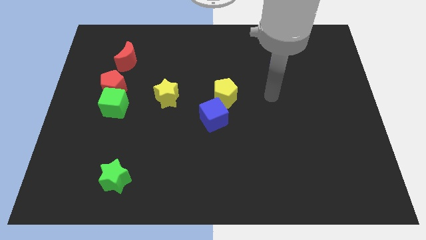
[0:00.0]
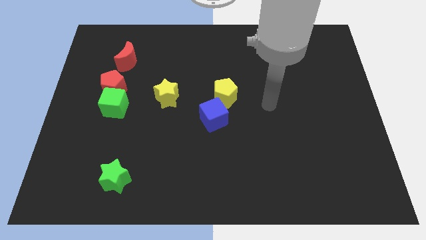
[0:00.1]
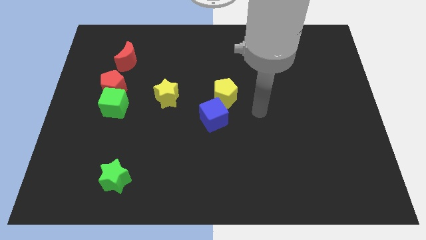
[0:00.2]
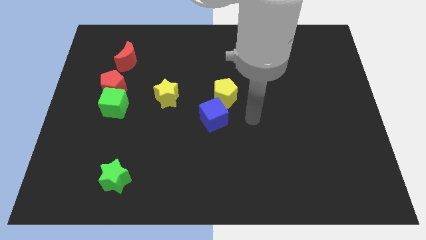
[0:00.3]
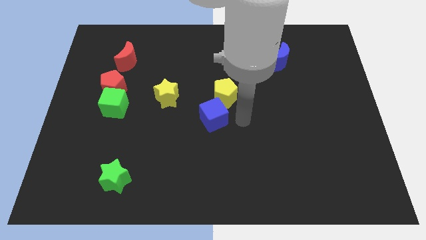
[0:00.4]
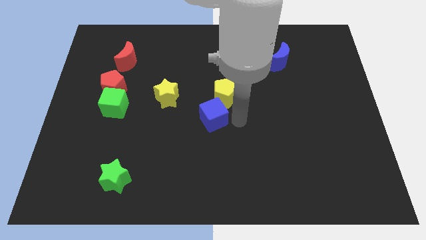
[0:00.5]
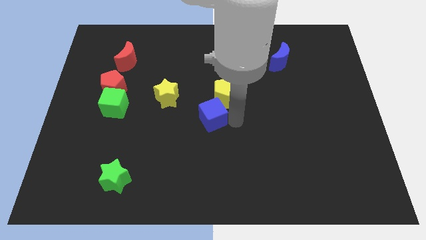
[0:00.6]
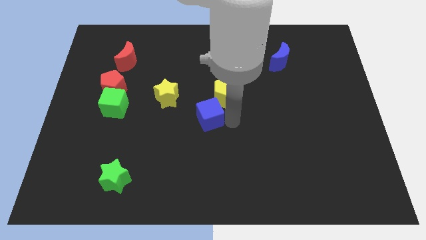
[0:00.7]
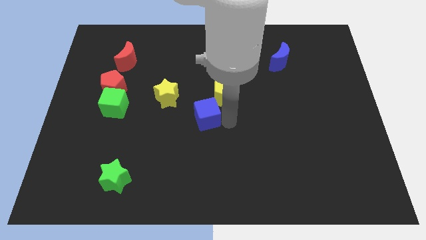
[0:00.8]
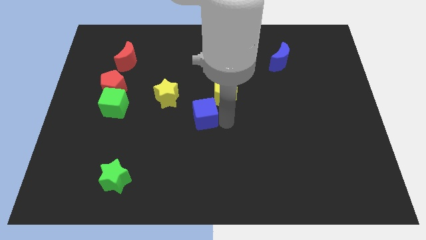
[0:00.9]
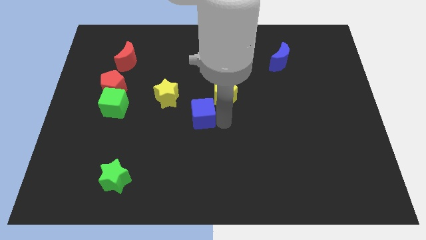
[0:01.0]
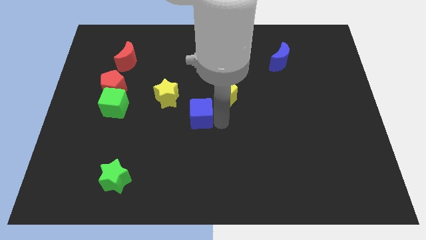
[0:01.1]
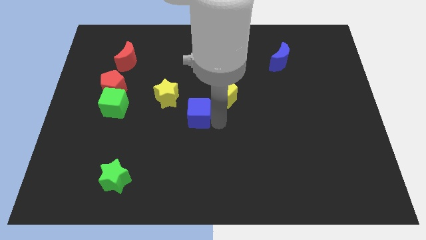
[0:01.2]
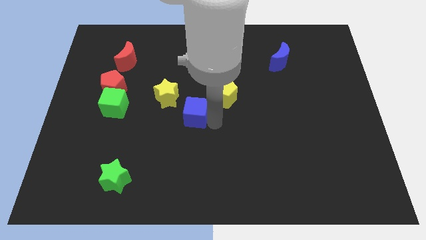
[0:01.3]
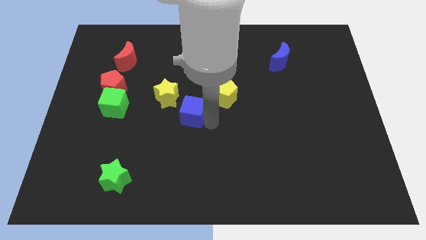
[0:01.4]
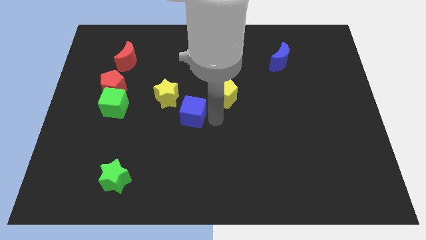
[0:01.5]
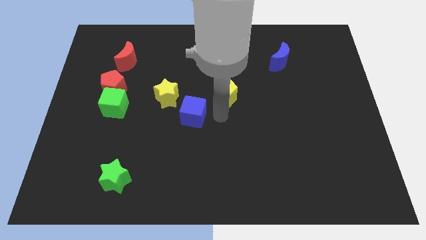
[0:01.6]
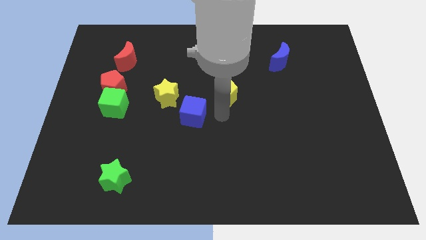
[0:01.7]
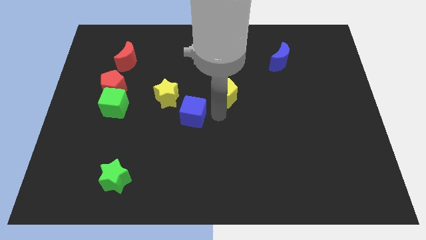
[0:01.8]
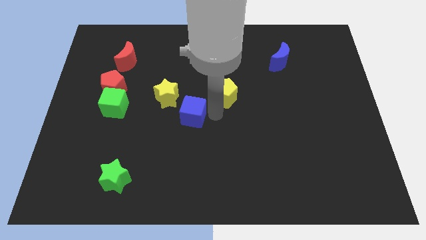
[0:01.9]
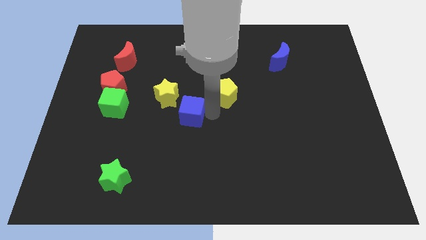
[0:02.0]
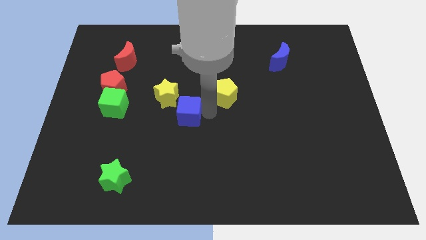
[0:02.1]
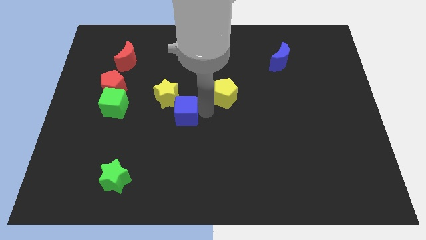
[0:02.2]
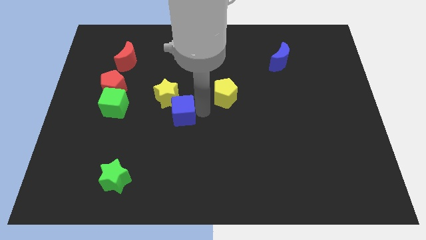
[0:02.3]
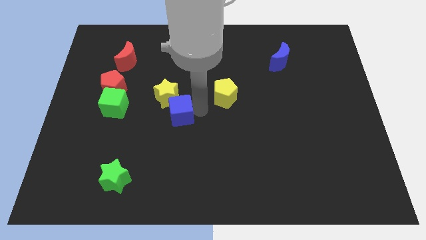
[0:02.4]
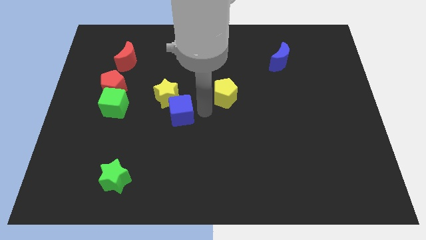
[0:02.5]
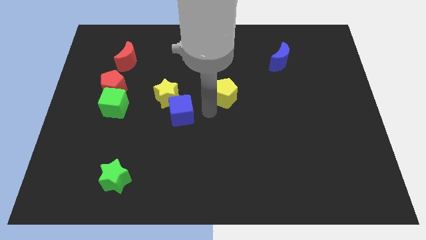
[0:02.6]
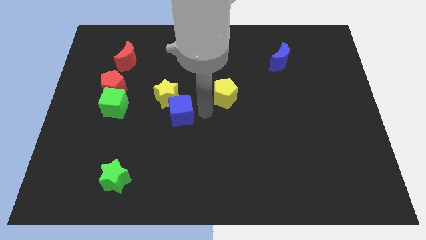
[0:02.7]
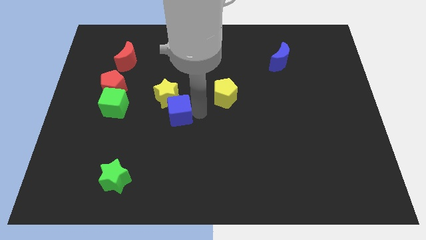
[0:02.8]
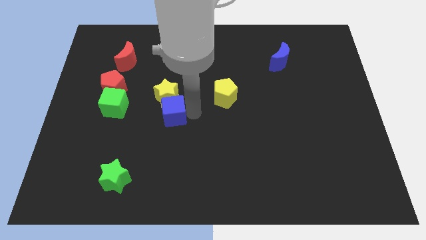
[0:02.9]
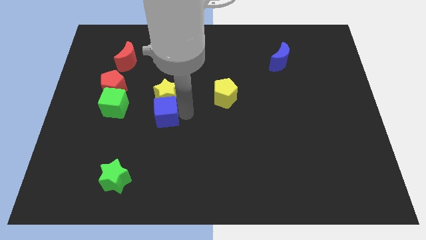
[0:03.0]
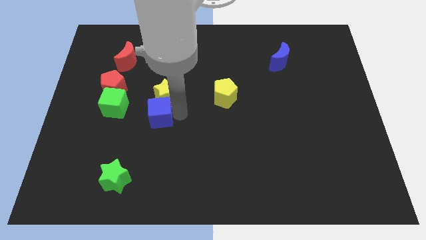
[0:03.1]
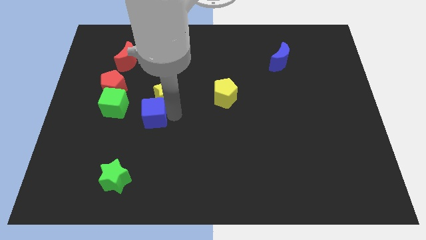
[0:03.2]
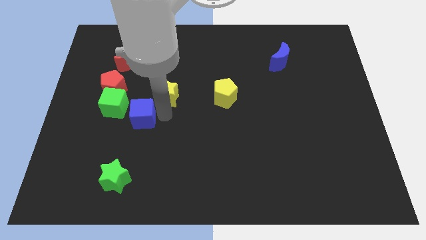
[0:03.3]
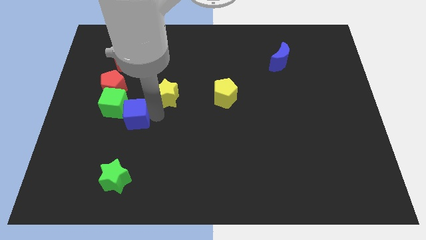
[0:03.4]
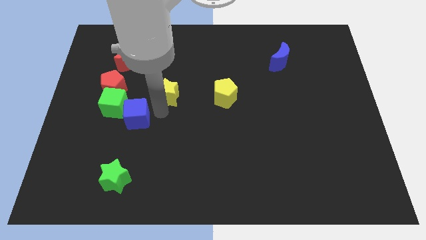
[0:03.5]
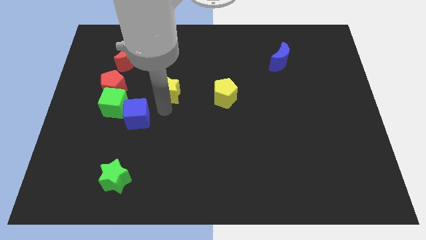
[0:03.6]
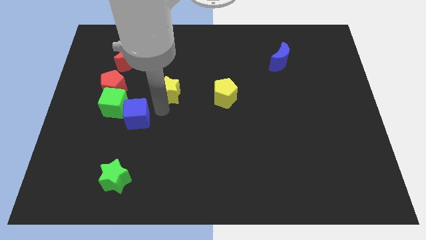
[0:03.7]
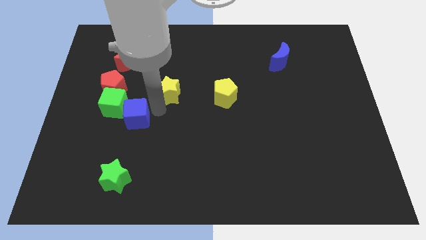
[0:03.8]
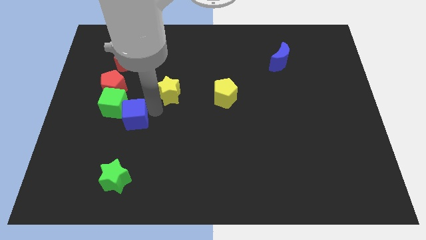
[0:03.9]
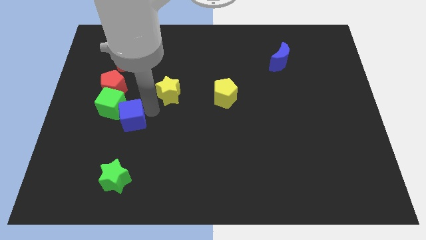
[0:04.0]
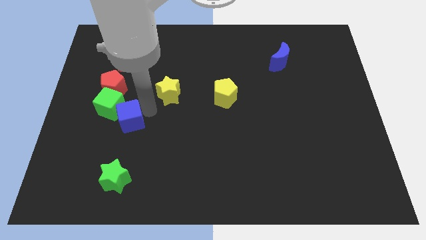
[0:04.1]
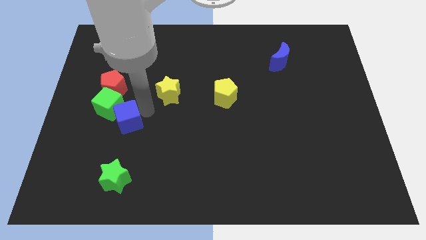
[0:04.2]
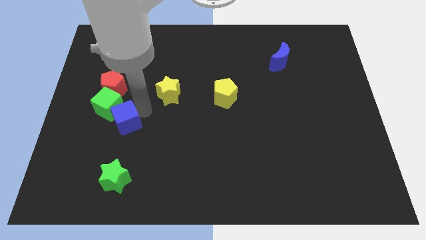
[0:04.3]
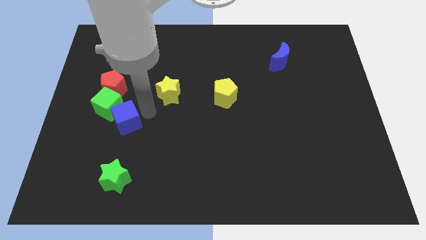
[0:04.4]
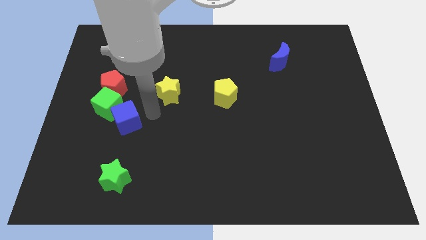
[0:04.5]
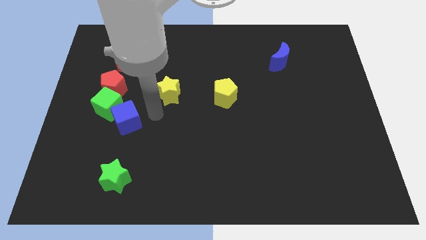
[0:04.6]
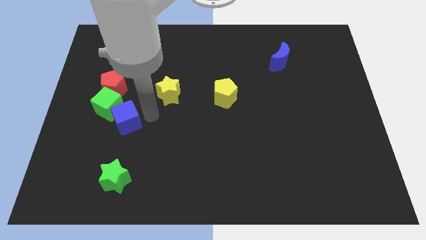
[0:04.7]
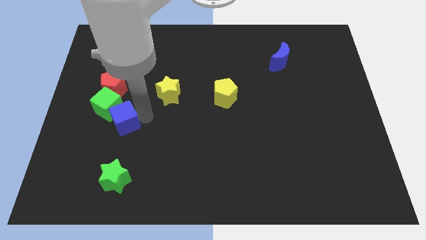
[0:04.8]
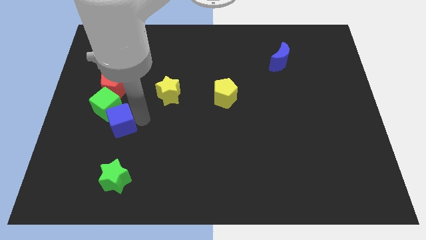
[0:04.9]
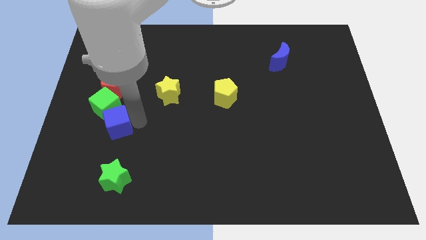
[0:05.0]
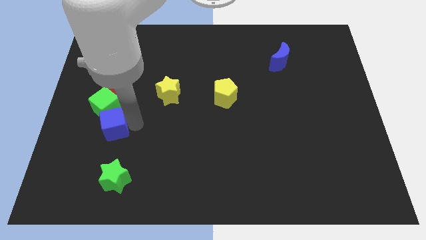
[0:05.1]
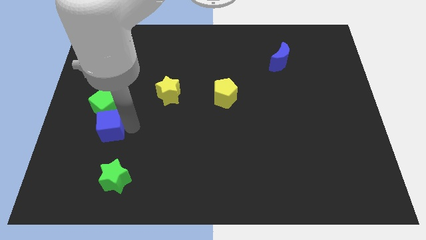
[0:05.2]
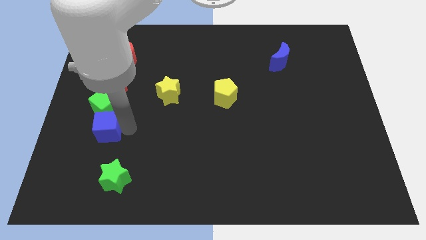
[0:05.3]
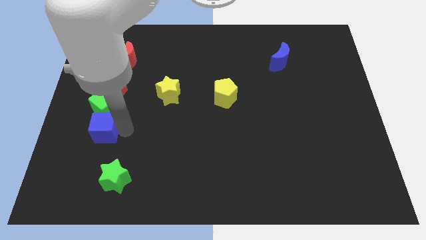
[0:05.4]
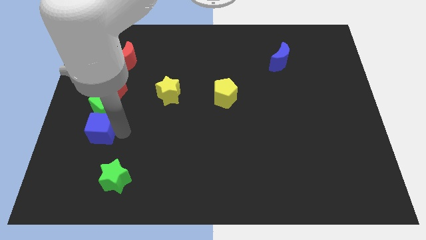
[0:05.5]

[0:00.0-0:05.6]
push the blue cube diagonally down and to the left of the green cube

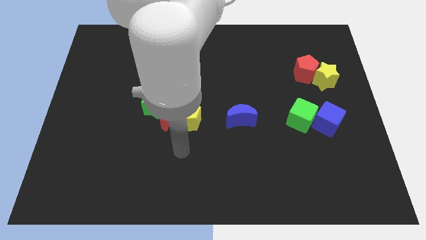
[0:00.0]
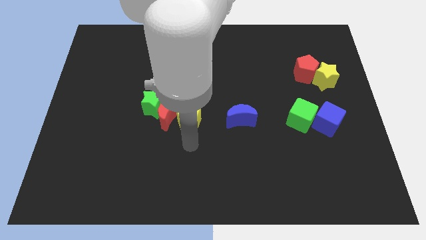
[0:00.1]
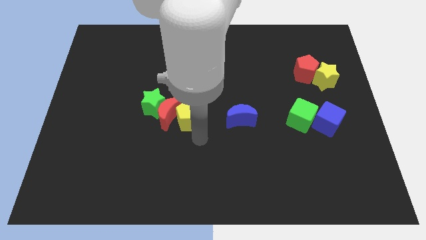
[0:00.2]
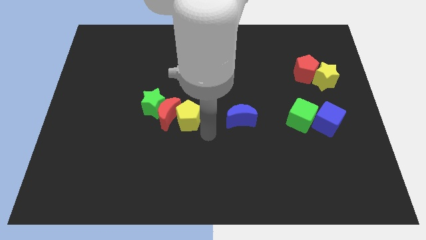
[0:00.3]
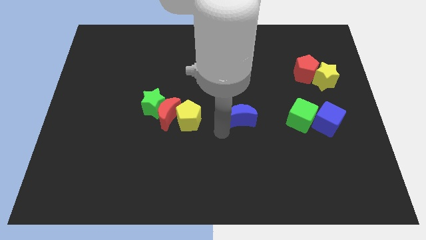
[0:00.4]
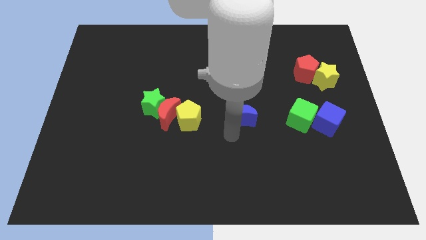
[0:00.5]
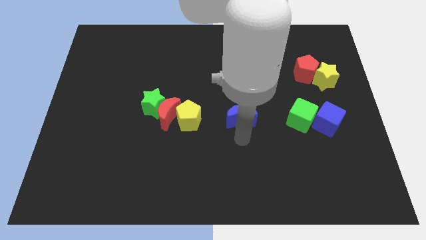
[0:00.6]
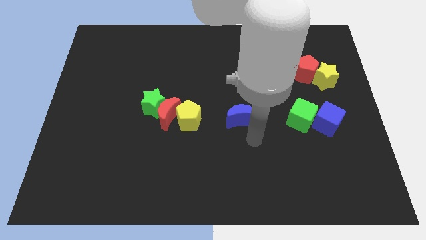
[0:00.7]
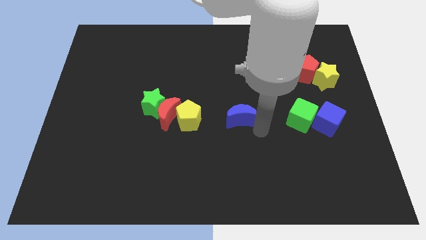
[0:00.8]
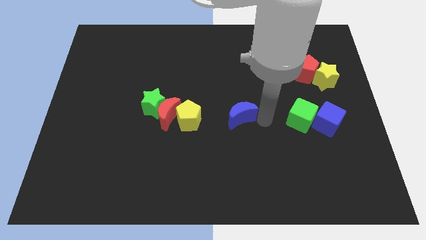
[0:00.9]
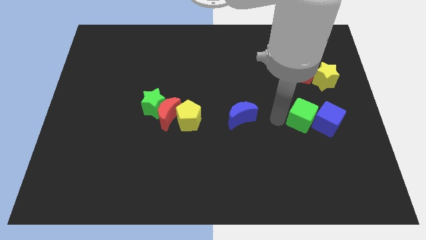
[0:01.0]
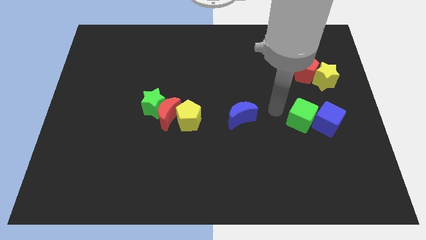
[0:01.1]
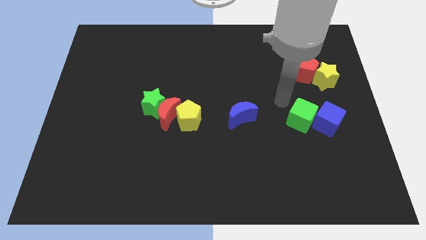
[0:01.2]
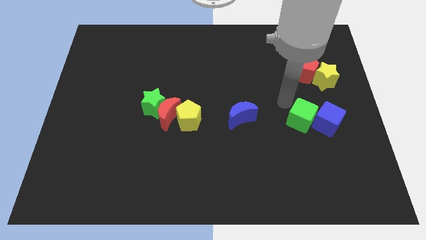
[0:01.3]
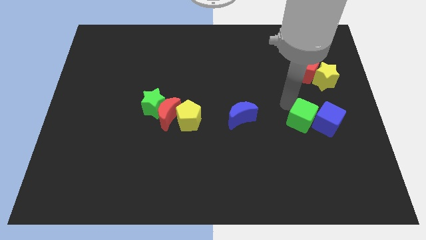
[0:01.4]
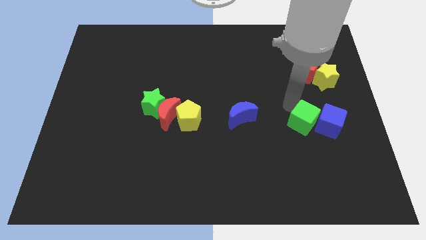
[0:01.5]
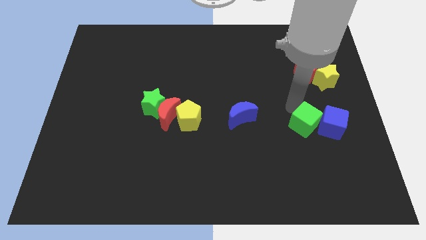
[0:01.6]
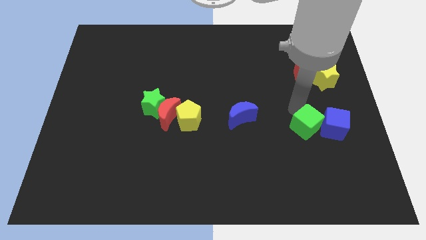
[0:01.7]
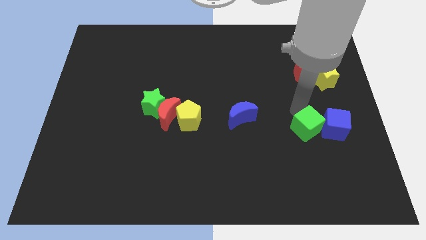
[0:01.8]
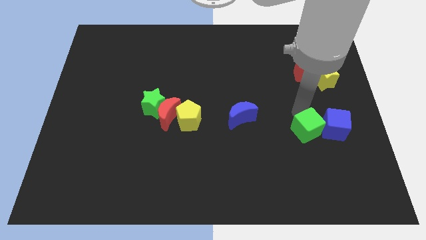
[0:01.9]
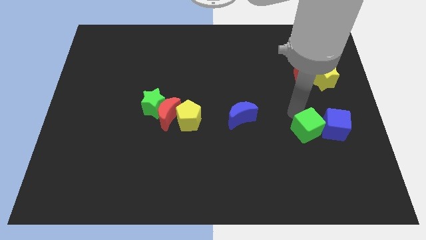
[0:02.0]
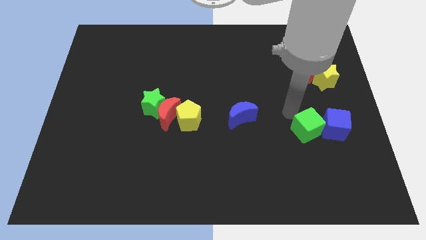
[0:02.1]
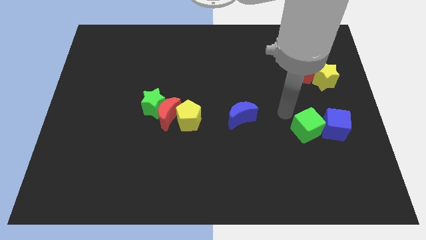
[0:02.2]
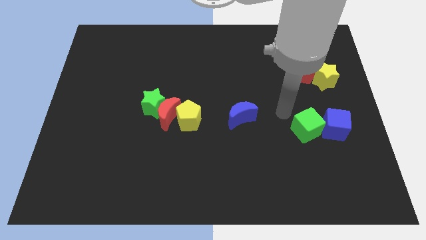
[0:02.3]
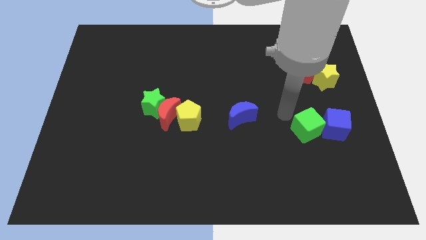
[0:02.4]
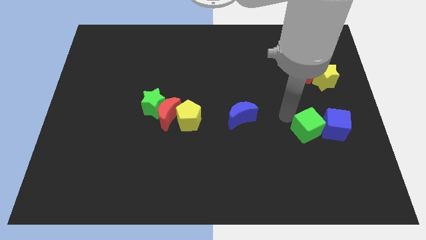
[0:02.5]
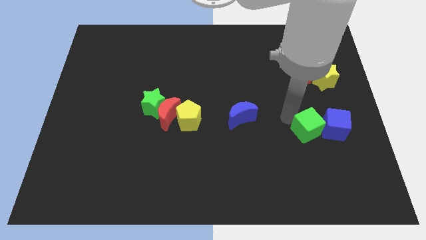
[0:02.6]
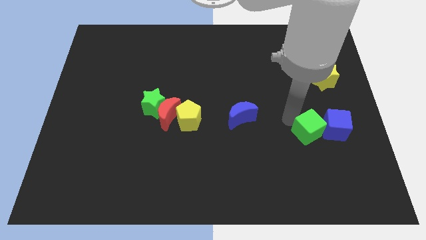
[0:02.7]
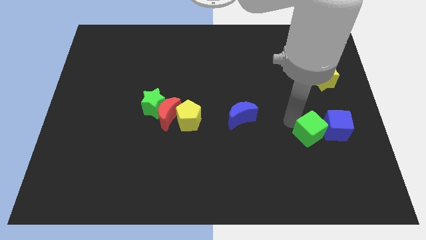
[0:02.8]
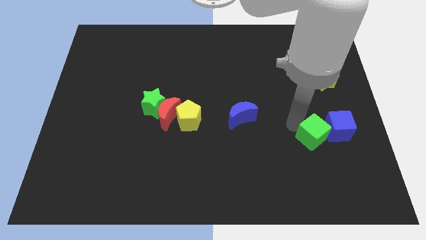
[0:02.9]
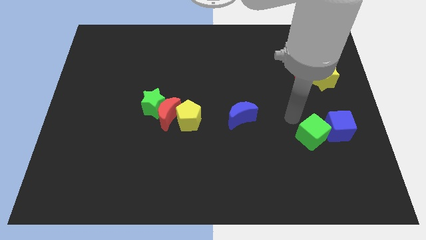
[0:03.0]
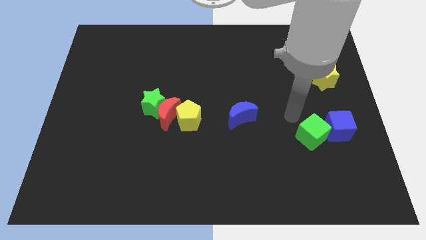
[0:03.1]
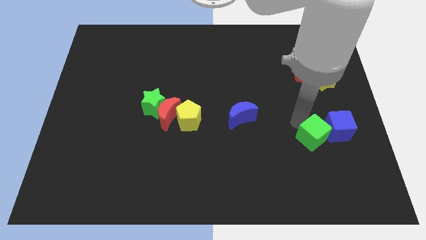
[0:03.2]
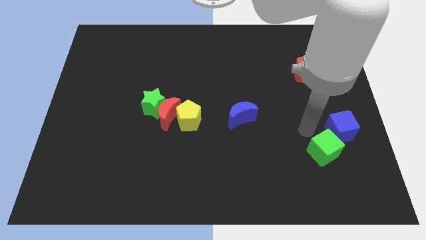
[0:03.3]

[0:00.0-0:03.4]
put the green cube below the blue cube
